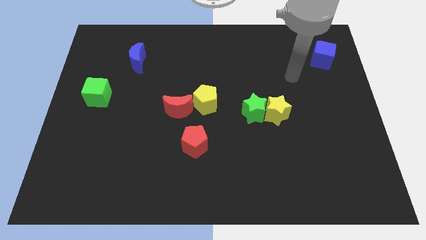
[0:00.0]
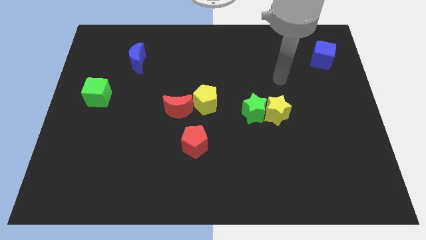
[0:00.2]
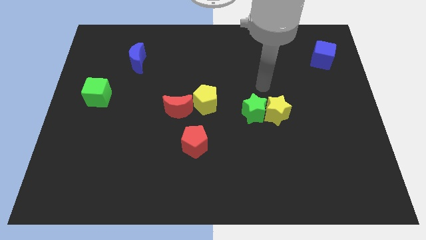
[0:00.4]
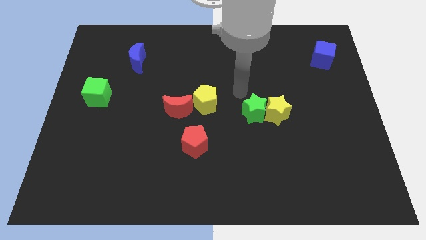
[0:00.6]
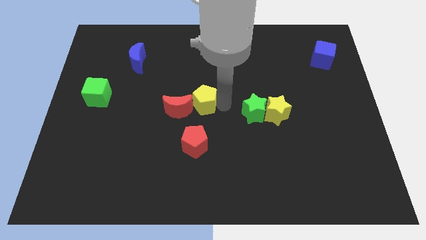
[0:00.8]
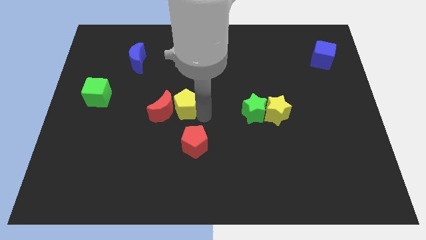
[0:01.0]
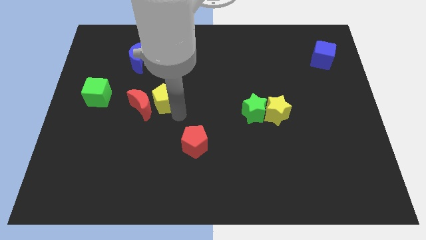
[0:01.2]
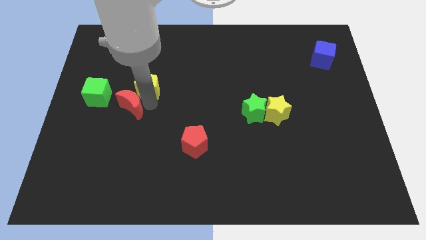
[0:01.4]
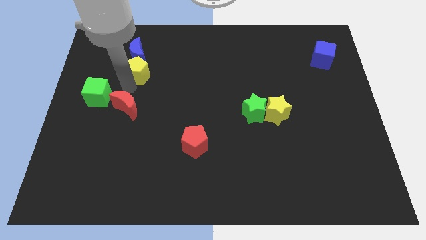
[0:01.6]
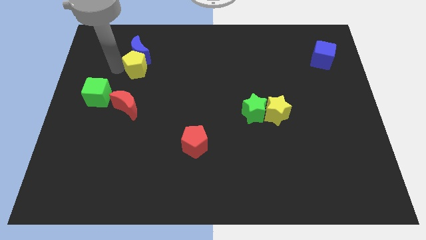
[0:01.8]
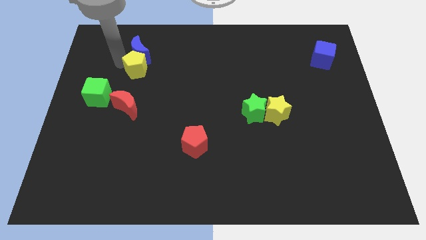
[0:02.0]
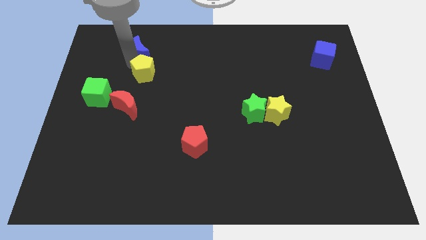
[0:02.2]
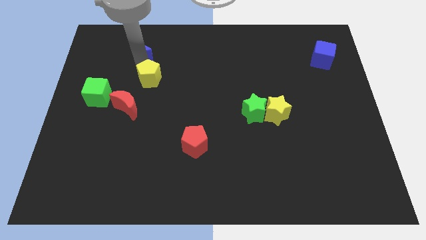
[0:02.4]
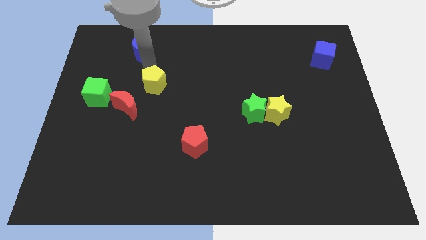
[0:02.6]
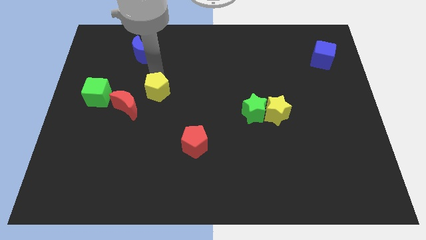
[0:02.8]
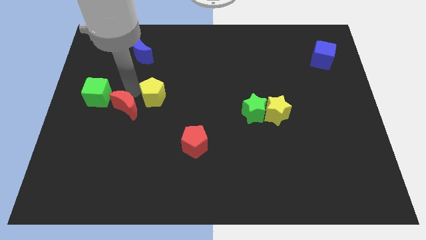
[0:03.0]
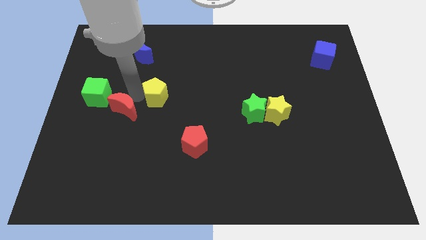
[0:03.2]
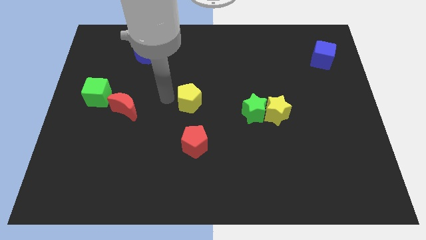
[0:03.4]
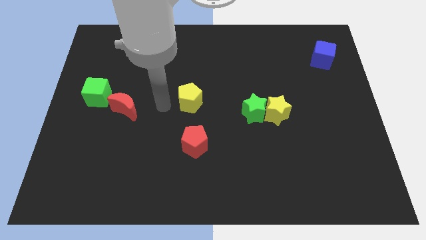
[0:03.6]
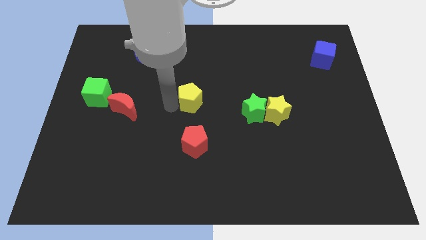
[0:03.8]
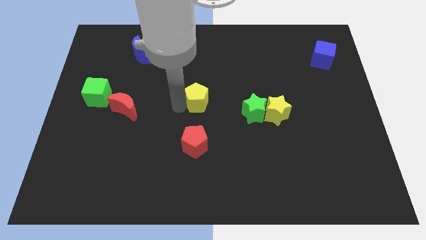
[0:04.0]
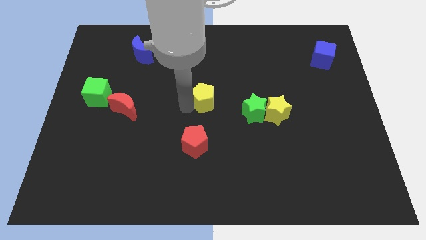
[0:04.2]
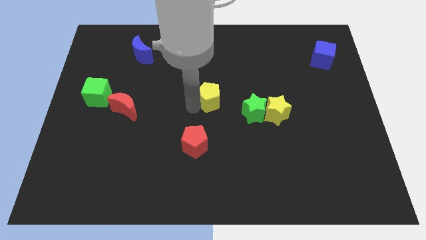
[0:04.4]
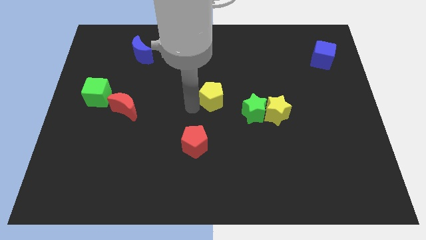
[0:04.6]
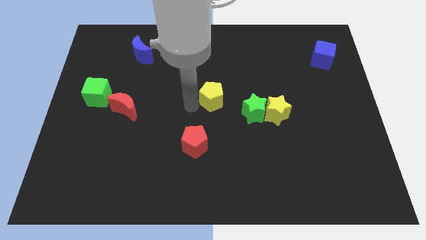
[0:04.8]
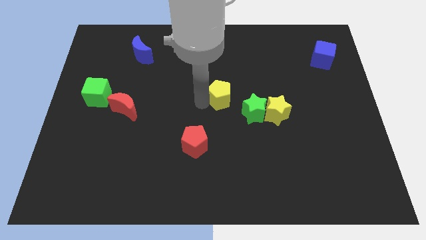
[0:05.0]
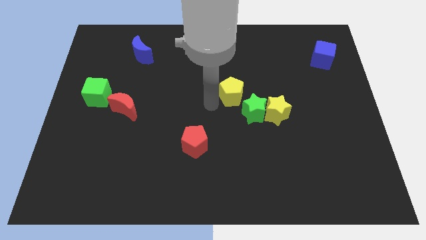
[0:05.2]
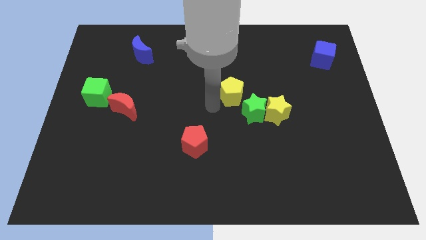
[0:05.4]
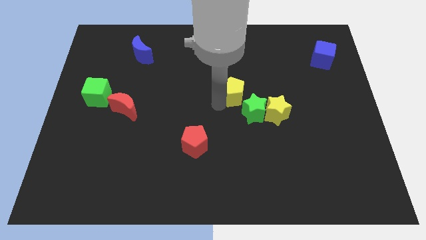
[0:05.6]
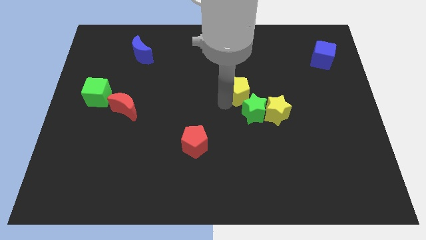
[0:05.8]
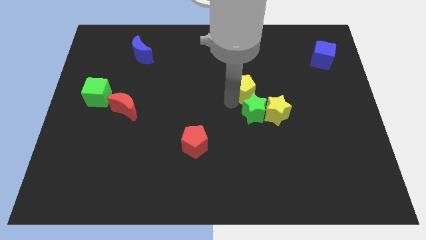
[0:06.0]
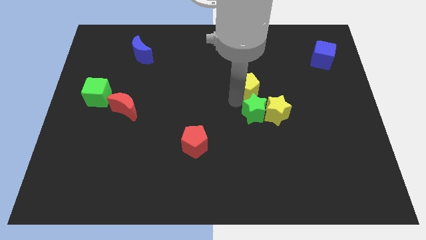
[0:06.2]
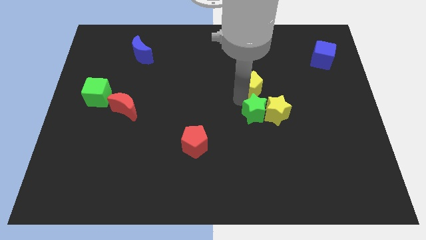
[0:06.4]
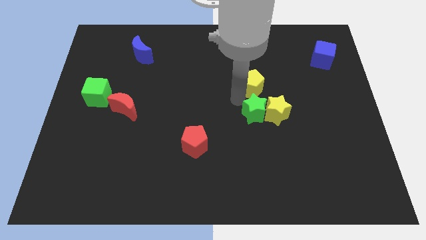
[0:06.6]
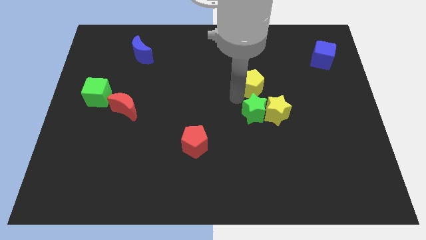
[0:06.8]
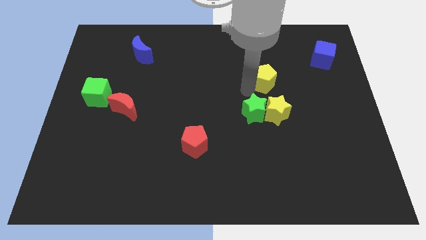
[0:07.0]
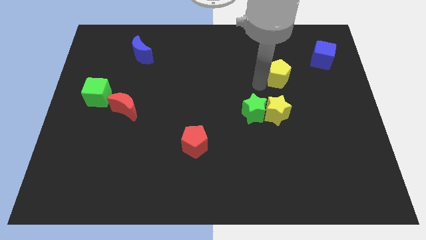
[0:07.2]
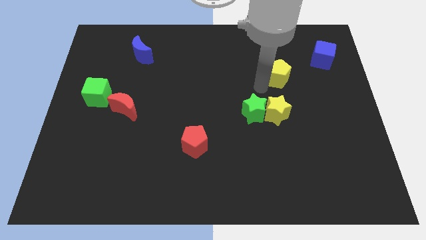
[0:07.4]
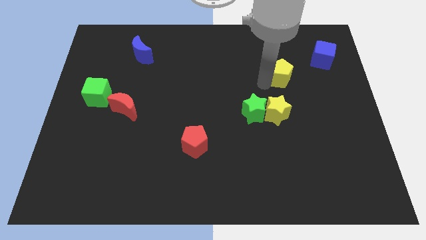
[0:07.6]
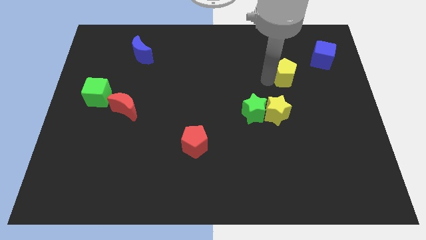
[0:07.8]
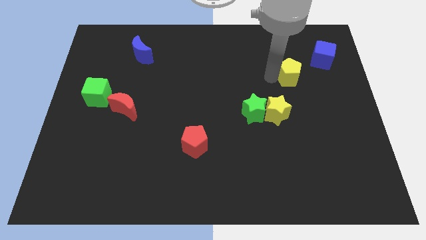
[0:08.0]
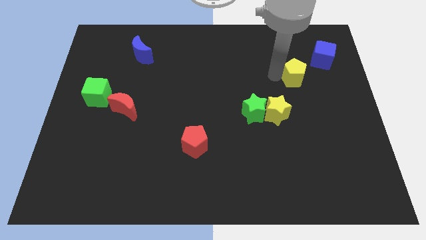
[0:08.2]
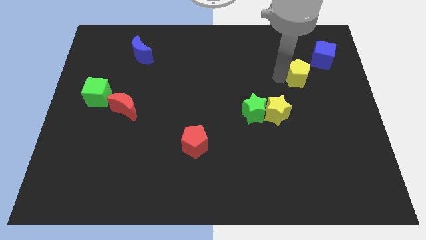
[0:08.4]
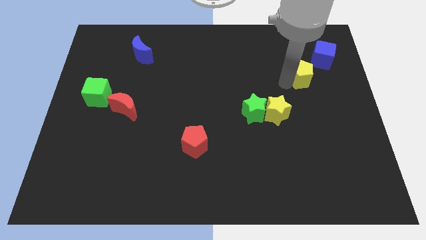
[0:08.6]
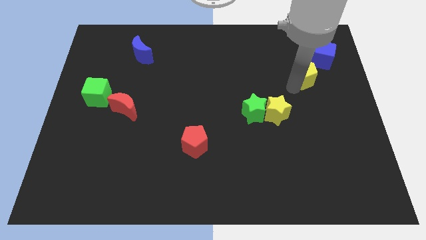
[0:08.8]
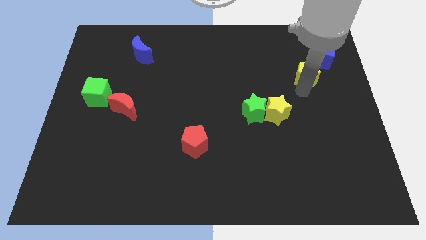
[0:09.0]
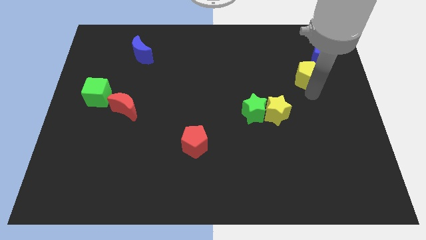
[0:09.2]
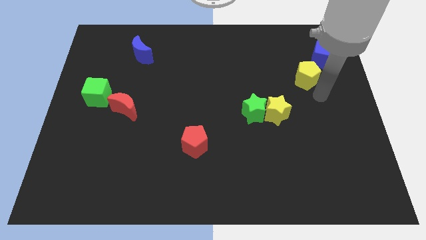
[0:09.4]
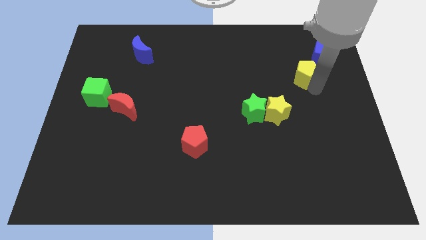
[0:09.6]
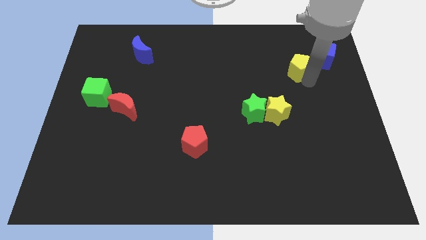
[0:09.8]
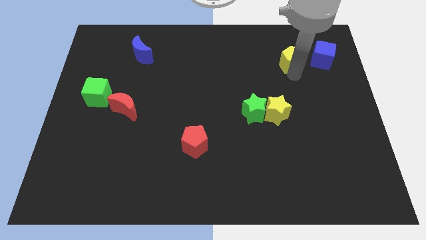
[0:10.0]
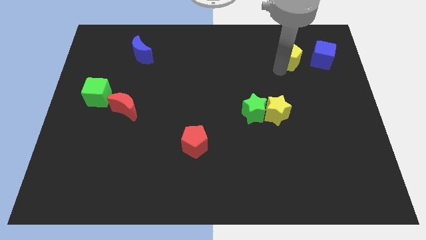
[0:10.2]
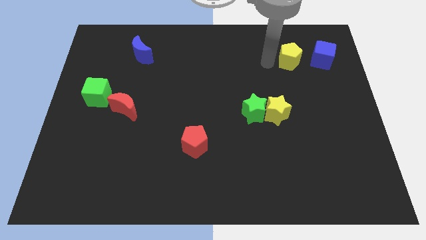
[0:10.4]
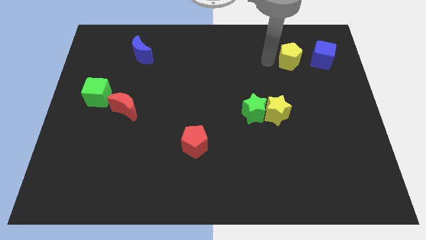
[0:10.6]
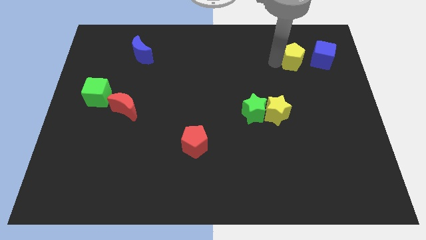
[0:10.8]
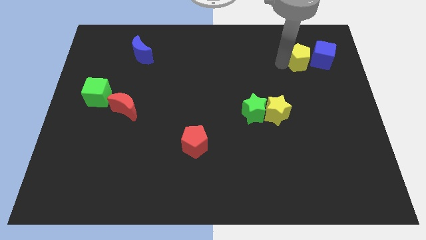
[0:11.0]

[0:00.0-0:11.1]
slide the yellow pentagon next to the blue cube

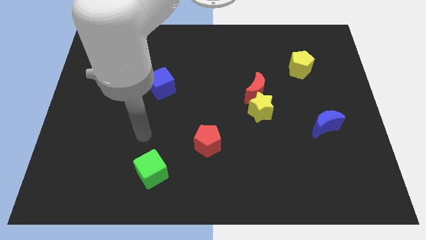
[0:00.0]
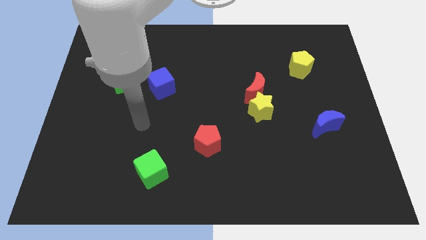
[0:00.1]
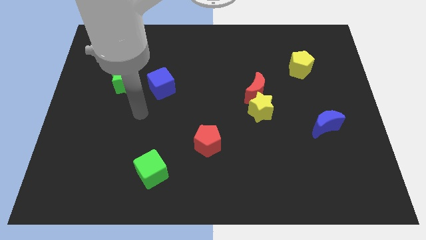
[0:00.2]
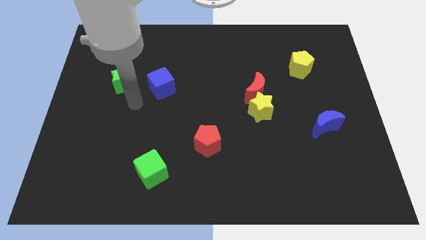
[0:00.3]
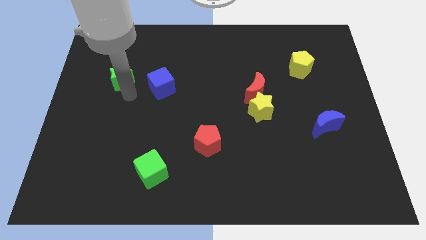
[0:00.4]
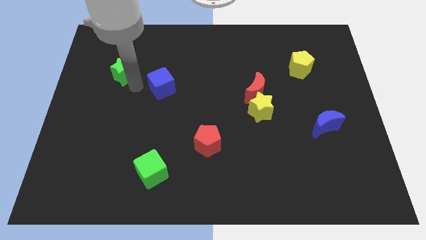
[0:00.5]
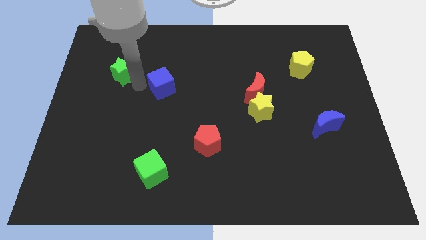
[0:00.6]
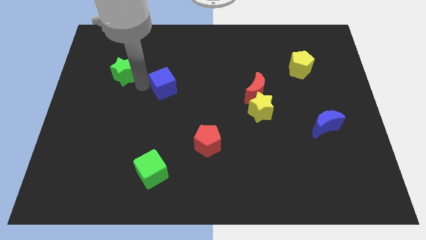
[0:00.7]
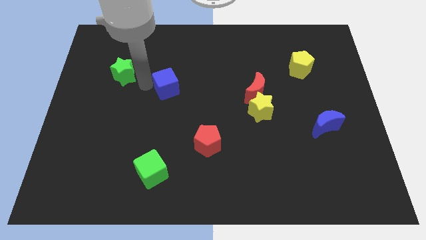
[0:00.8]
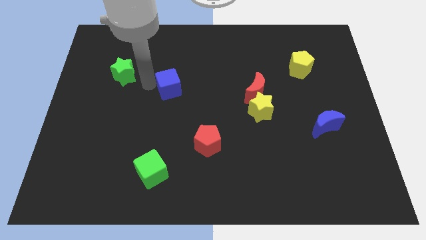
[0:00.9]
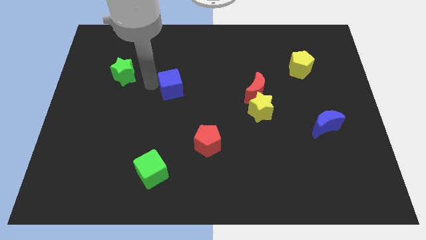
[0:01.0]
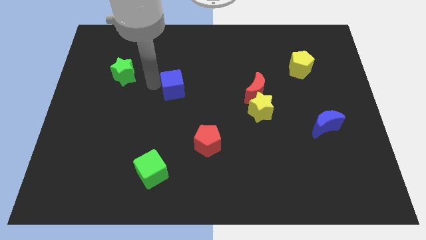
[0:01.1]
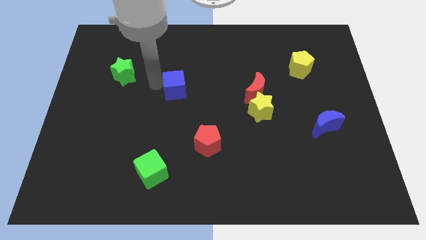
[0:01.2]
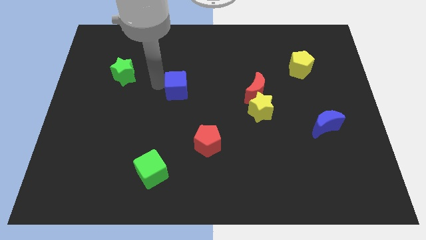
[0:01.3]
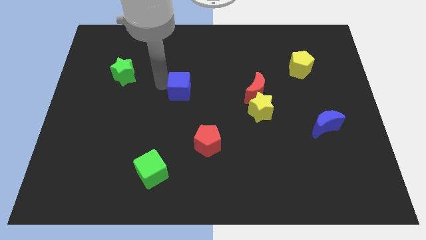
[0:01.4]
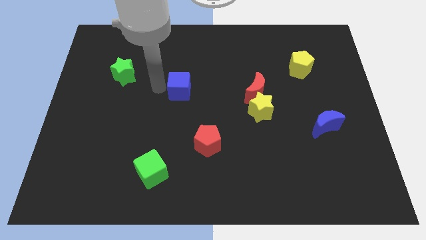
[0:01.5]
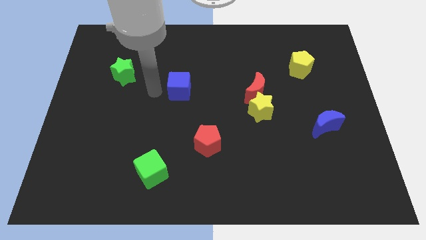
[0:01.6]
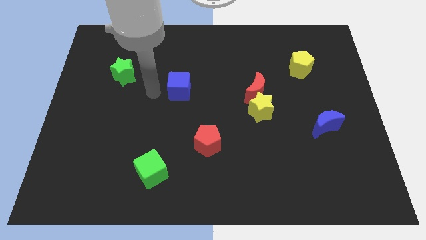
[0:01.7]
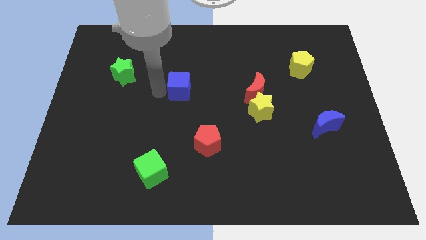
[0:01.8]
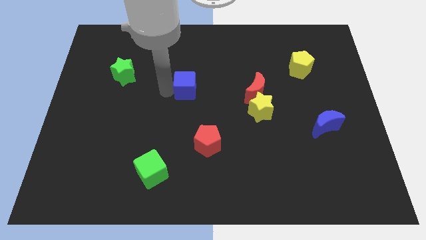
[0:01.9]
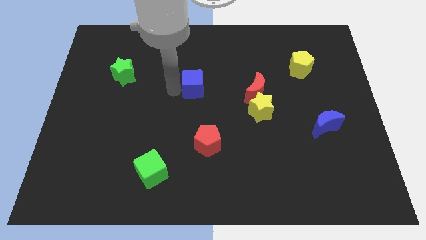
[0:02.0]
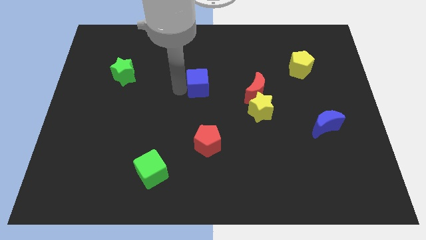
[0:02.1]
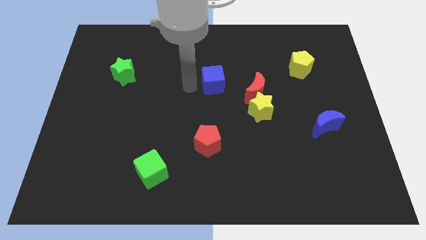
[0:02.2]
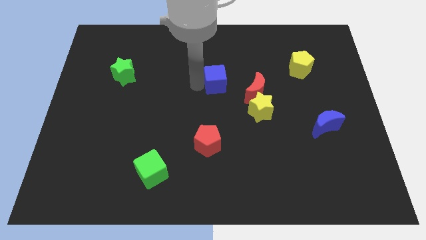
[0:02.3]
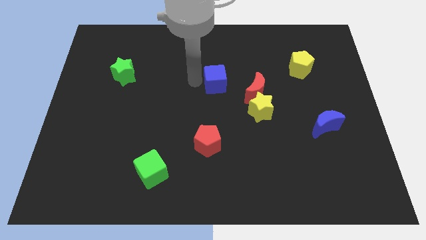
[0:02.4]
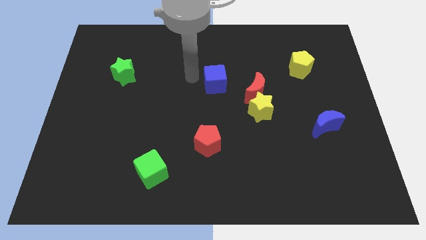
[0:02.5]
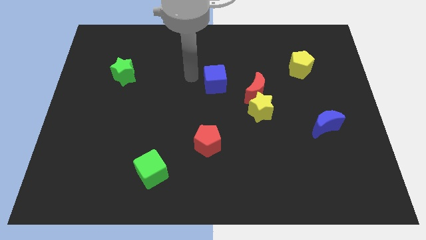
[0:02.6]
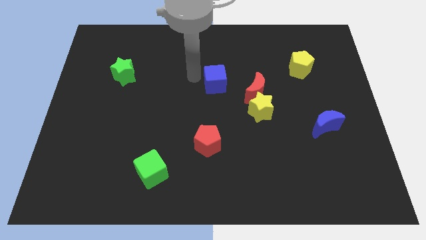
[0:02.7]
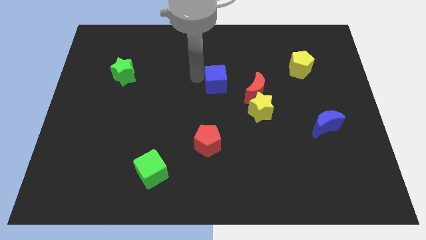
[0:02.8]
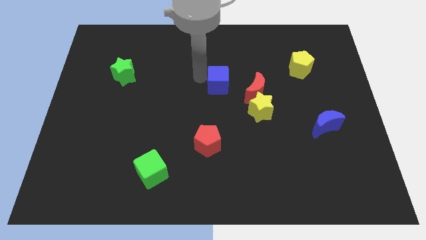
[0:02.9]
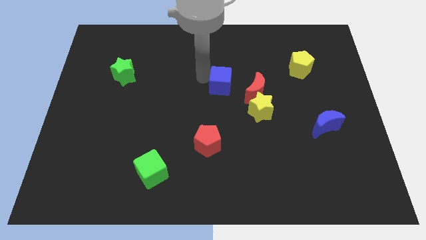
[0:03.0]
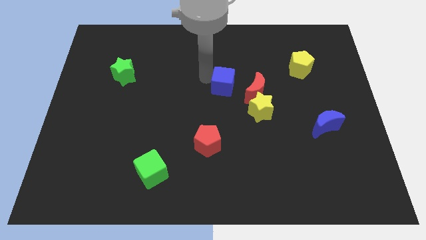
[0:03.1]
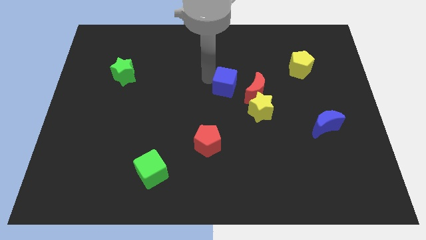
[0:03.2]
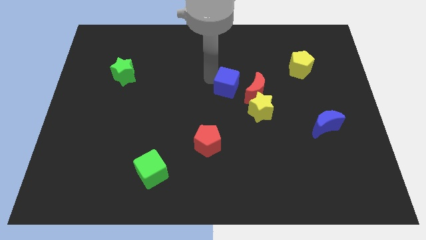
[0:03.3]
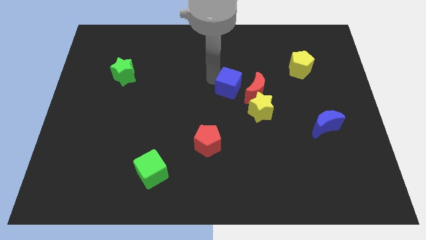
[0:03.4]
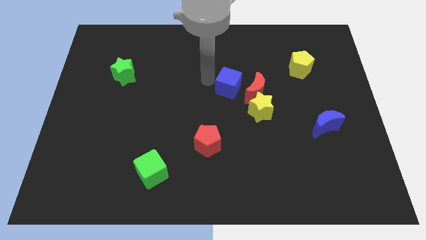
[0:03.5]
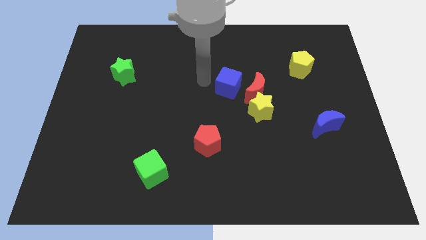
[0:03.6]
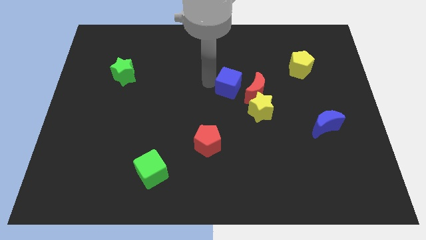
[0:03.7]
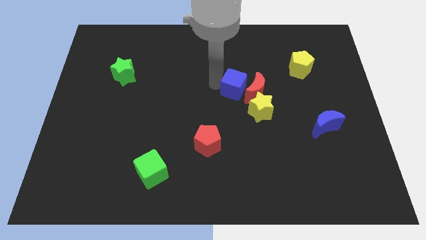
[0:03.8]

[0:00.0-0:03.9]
push the blue cube to the red moon
